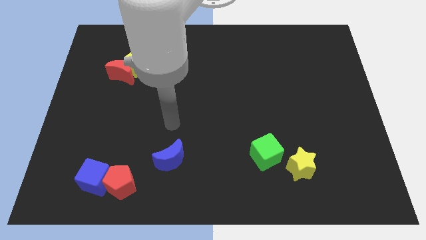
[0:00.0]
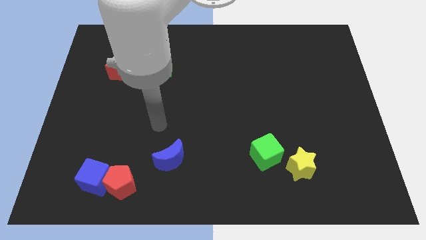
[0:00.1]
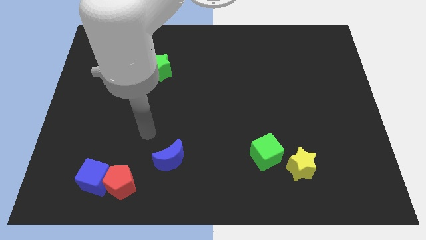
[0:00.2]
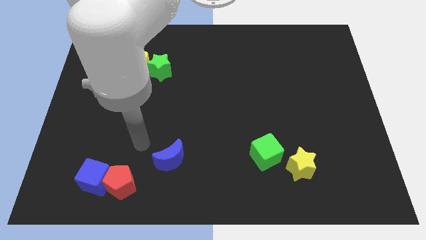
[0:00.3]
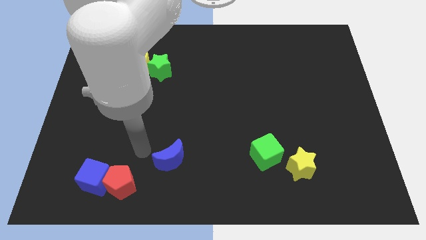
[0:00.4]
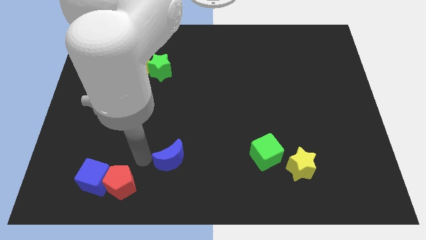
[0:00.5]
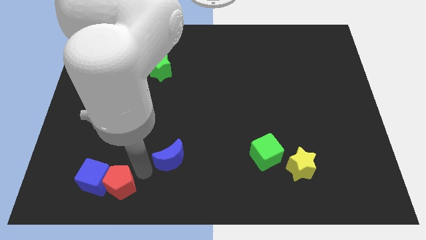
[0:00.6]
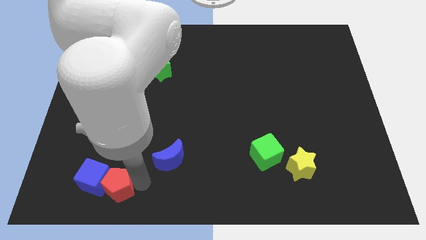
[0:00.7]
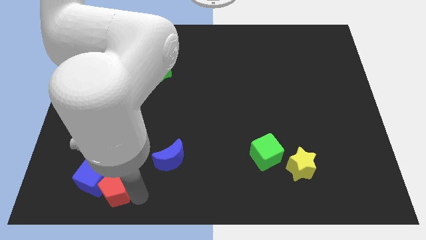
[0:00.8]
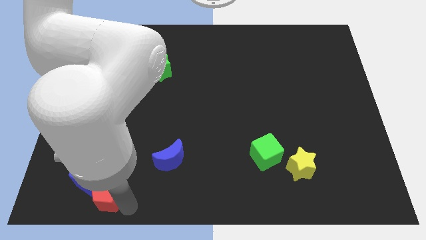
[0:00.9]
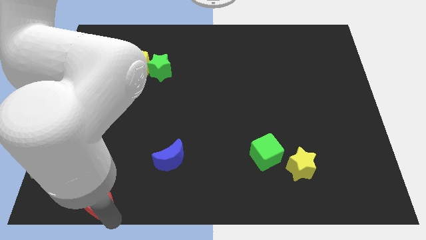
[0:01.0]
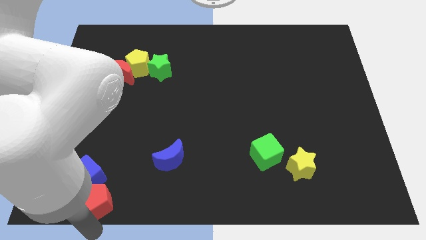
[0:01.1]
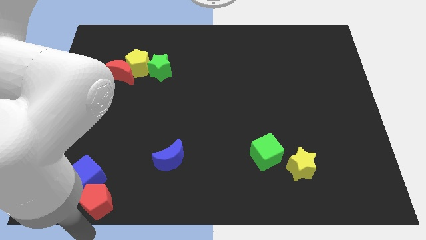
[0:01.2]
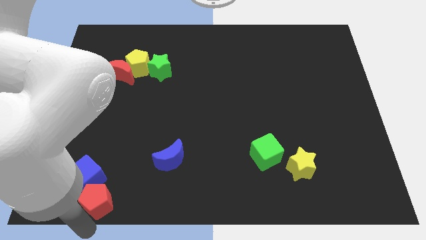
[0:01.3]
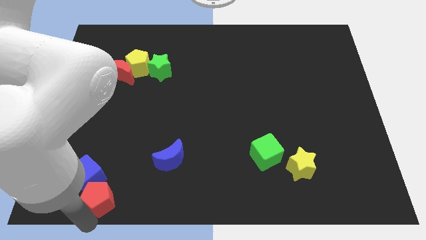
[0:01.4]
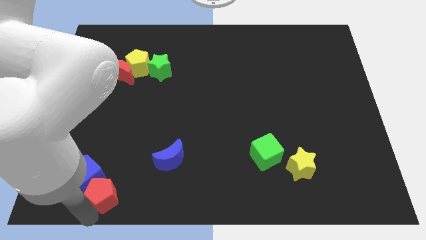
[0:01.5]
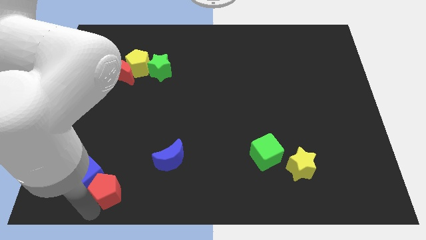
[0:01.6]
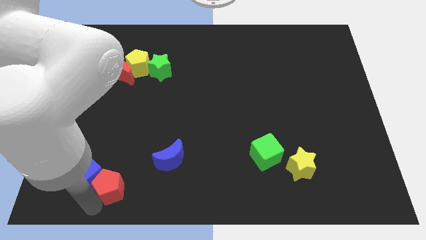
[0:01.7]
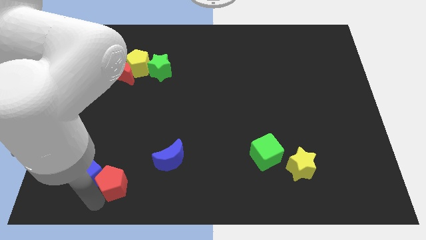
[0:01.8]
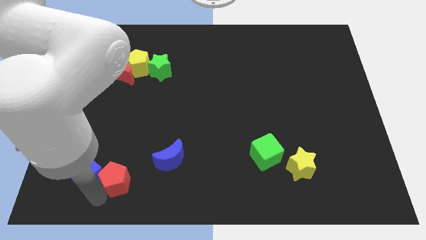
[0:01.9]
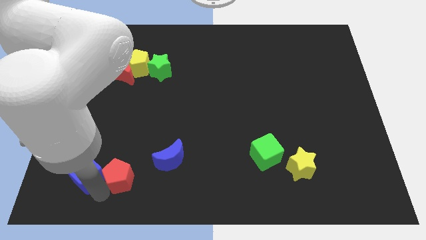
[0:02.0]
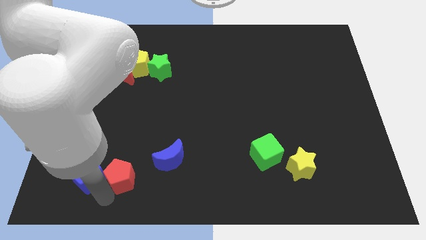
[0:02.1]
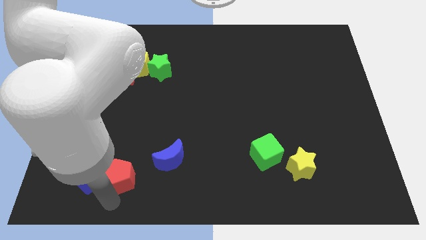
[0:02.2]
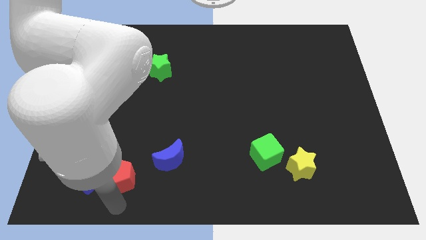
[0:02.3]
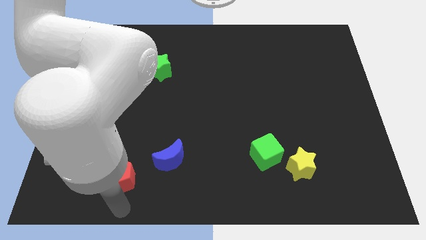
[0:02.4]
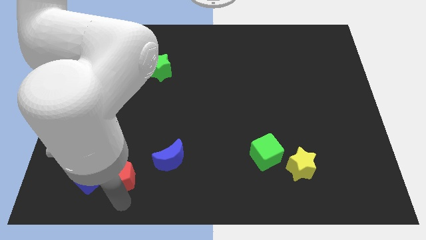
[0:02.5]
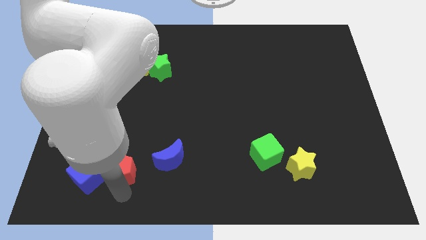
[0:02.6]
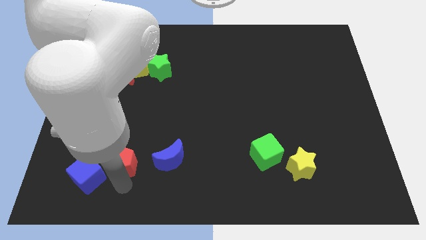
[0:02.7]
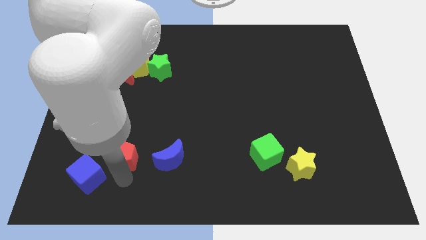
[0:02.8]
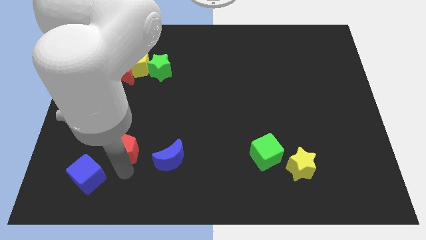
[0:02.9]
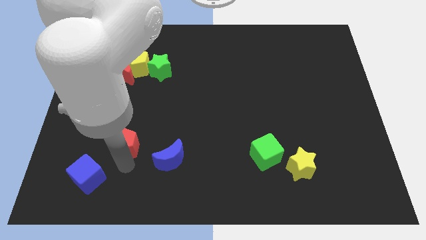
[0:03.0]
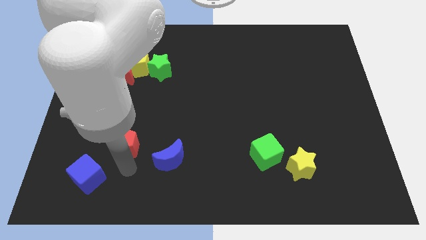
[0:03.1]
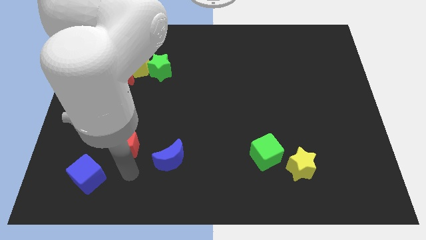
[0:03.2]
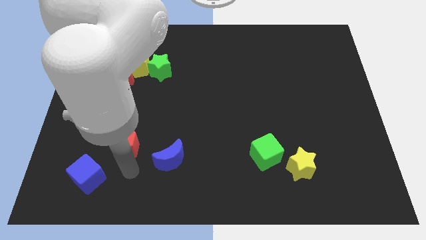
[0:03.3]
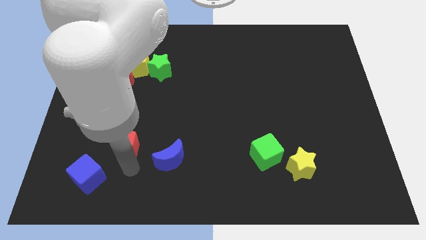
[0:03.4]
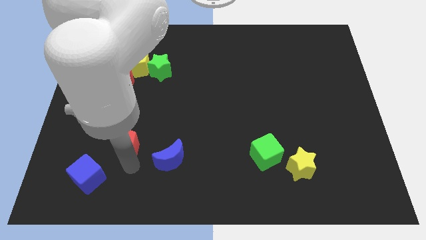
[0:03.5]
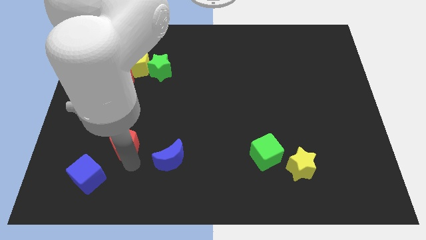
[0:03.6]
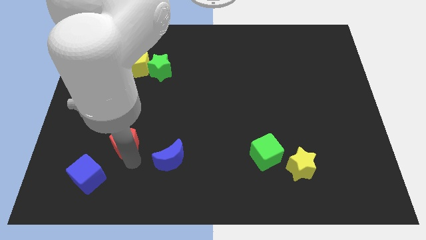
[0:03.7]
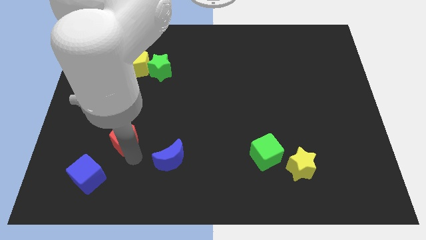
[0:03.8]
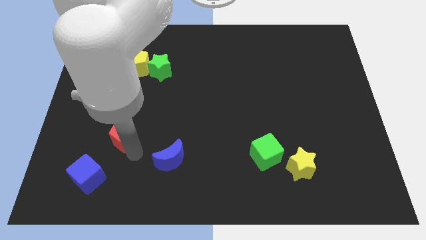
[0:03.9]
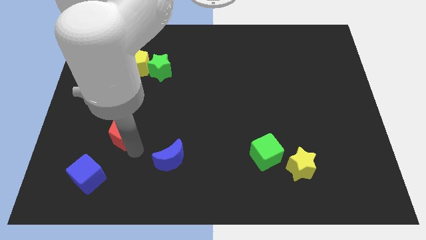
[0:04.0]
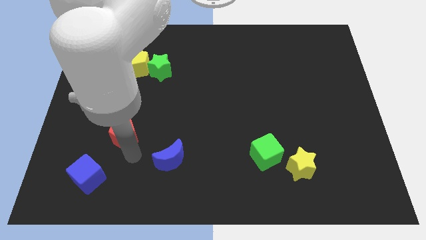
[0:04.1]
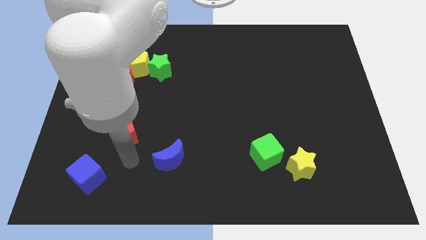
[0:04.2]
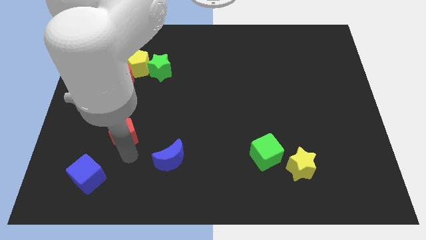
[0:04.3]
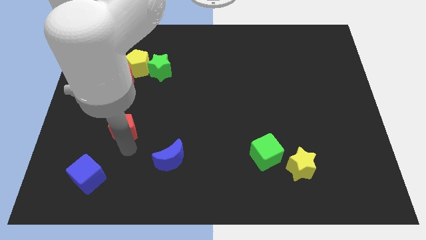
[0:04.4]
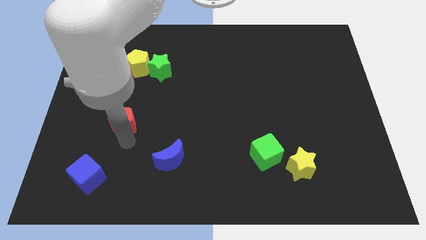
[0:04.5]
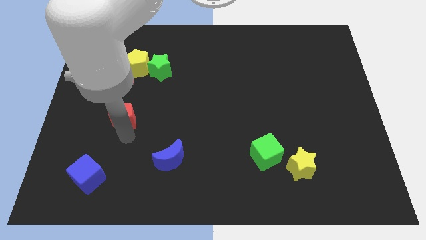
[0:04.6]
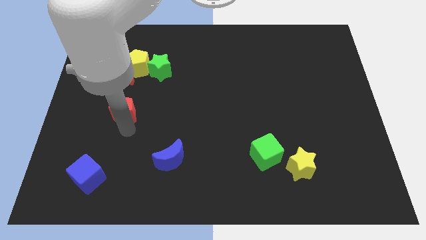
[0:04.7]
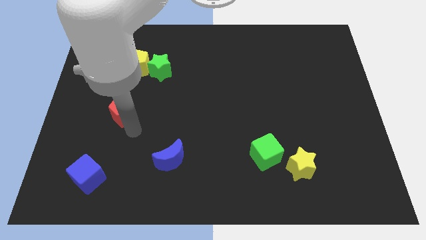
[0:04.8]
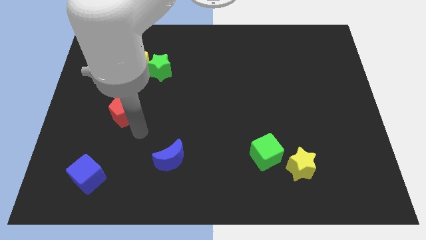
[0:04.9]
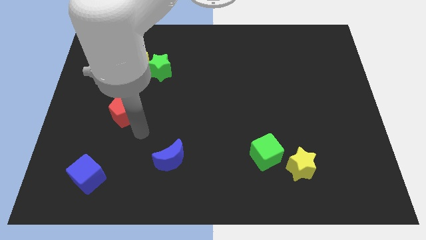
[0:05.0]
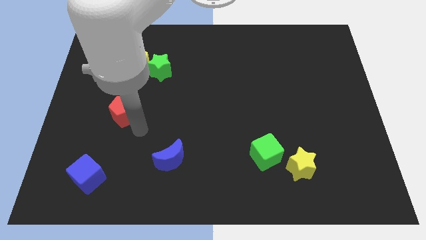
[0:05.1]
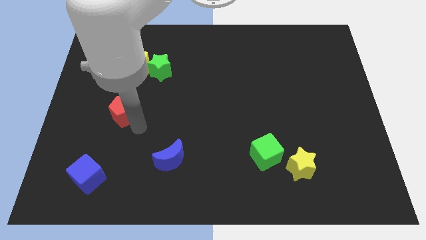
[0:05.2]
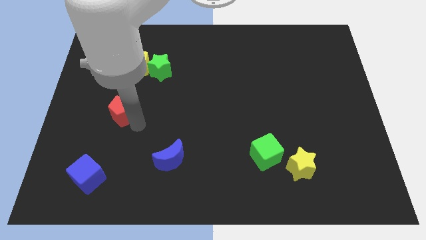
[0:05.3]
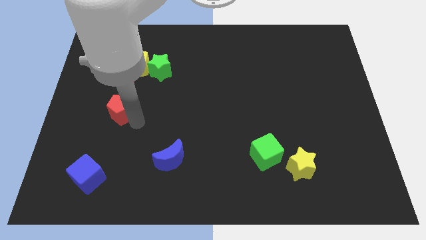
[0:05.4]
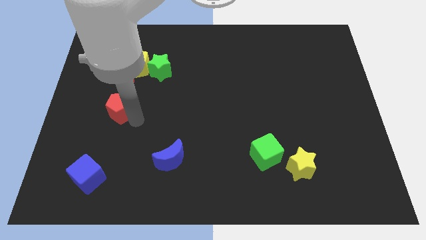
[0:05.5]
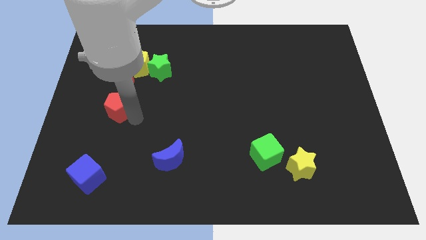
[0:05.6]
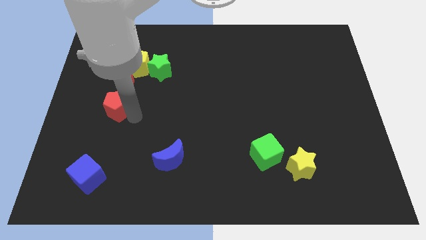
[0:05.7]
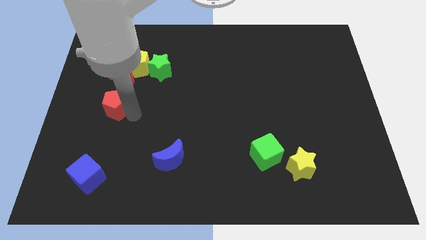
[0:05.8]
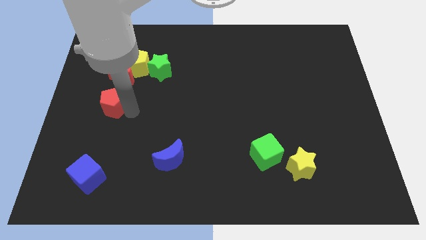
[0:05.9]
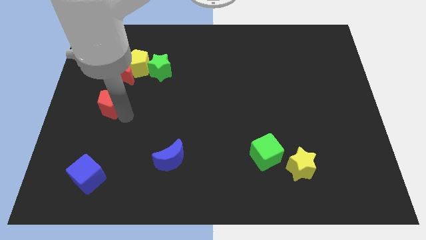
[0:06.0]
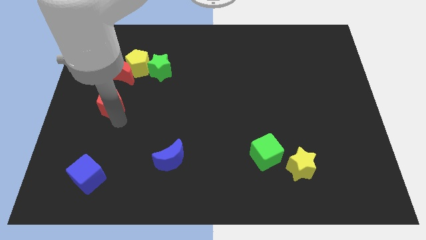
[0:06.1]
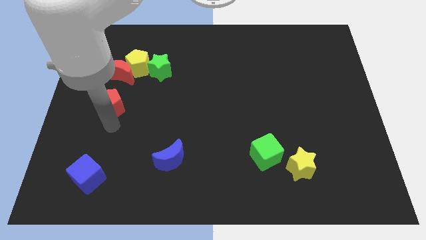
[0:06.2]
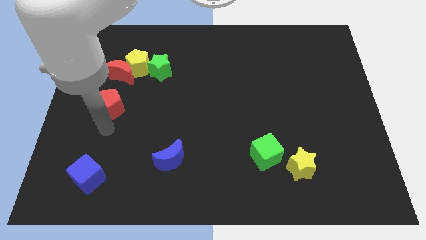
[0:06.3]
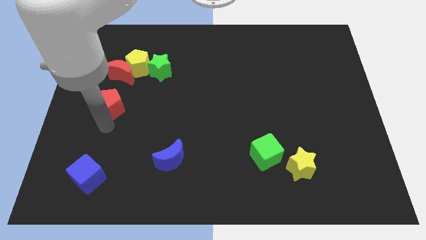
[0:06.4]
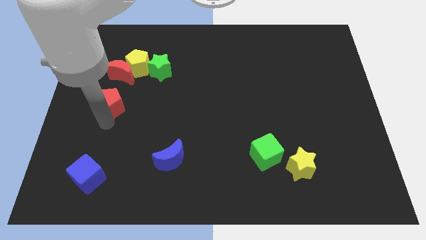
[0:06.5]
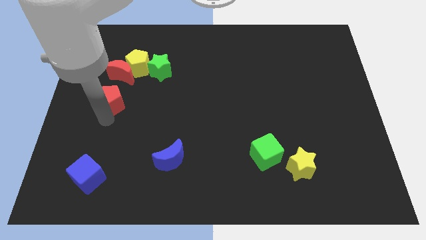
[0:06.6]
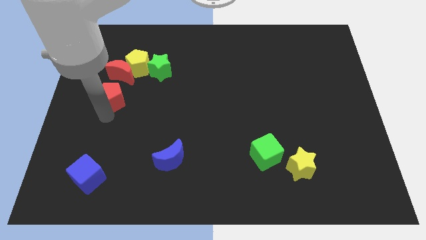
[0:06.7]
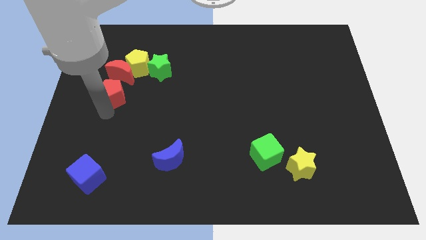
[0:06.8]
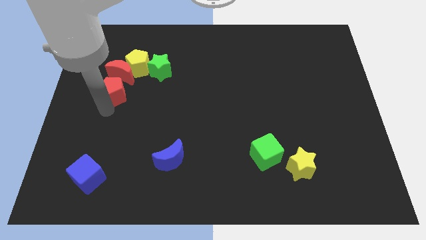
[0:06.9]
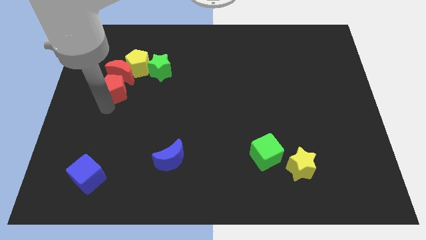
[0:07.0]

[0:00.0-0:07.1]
push the red pentagon close to the red moon

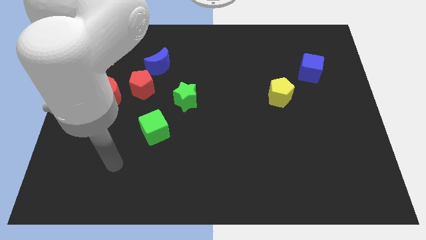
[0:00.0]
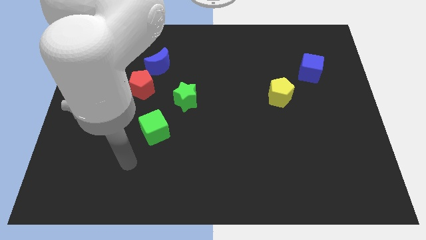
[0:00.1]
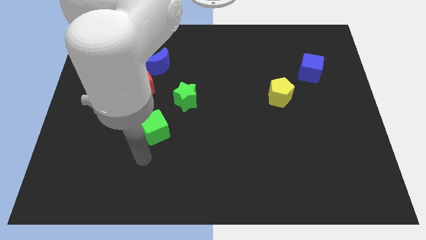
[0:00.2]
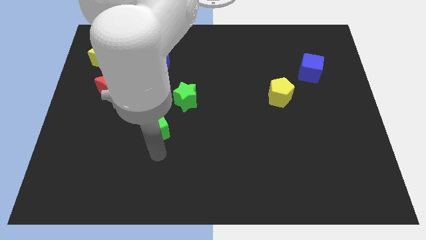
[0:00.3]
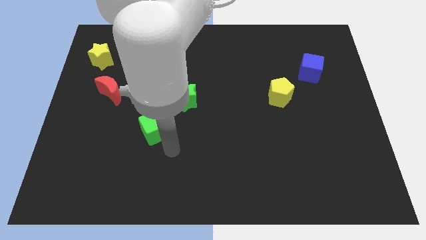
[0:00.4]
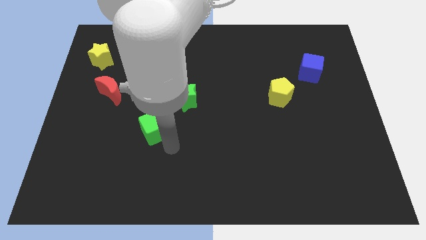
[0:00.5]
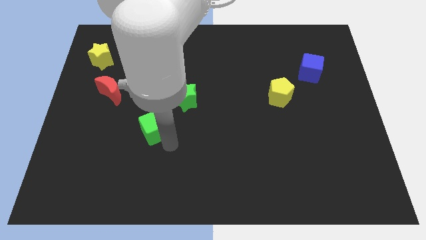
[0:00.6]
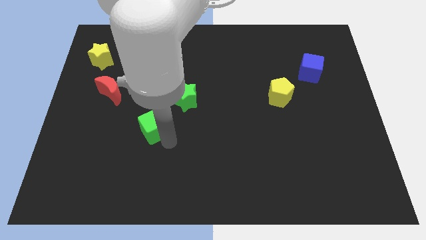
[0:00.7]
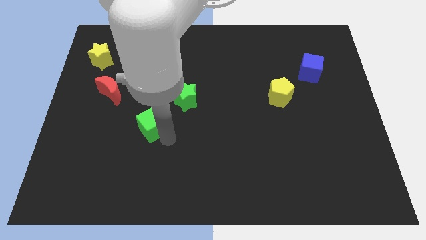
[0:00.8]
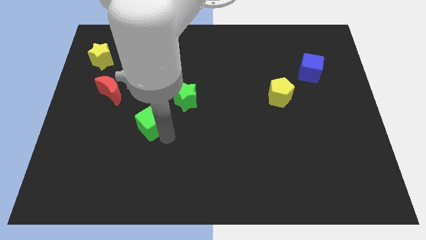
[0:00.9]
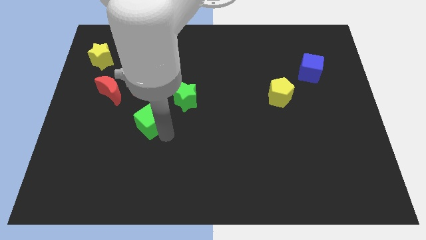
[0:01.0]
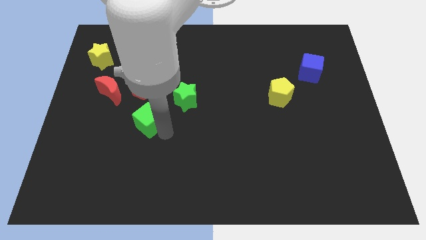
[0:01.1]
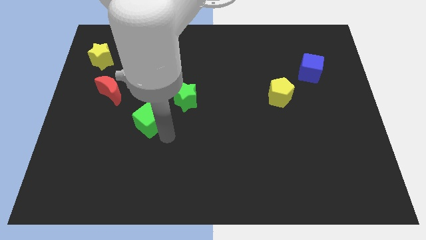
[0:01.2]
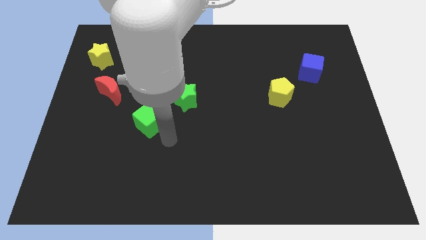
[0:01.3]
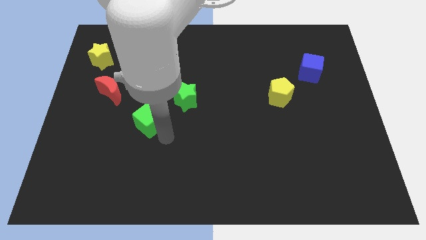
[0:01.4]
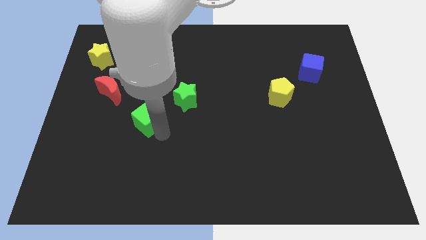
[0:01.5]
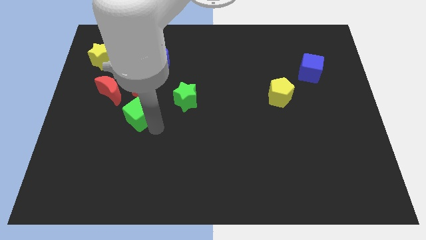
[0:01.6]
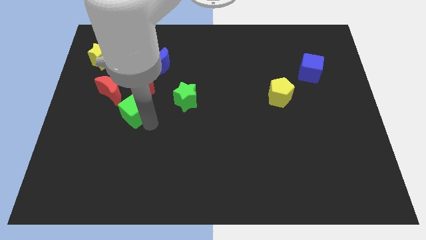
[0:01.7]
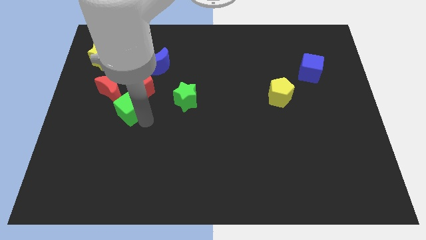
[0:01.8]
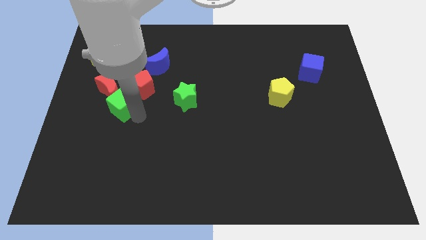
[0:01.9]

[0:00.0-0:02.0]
push the green cube to the red moon
